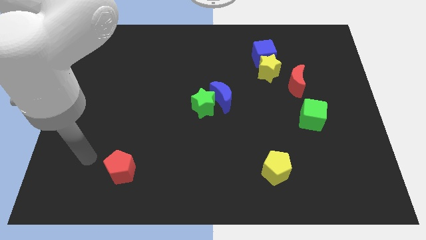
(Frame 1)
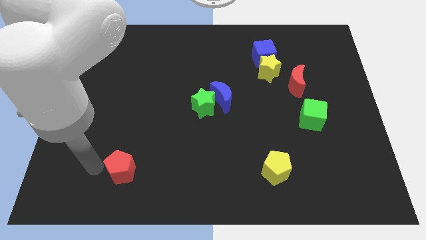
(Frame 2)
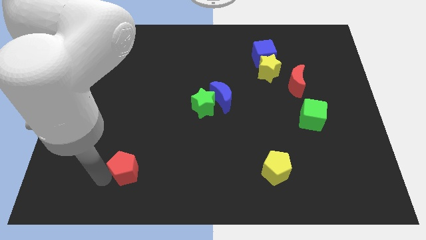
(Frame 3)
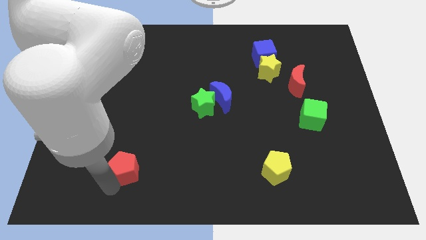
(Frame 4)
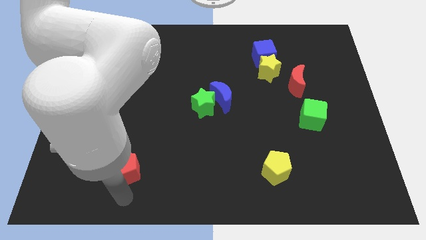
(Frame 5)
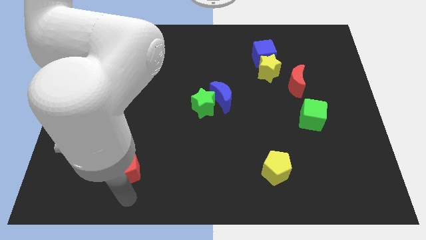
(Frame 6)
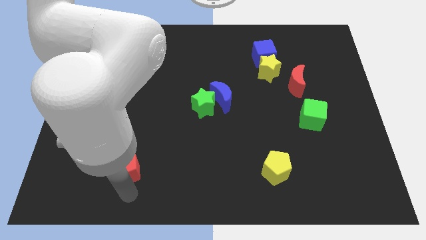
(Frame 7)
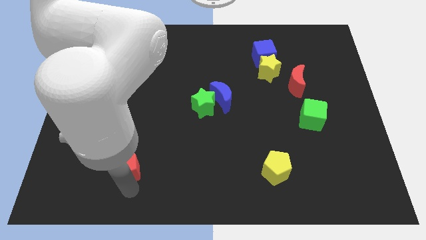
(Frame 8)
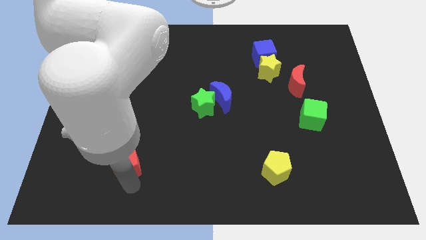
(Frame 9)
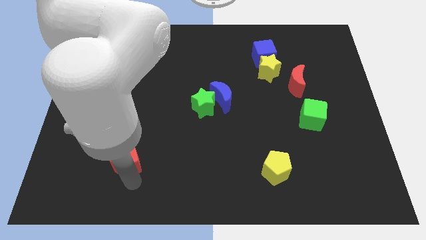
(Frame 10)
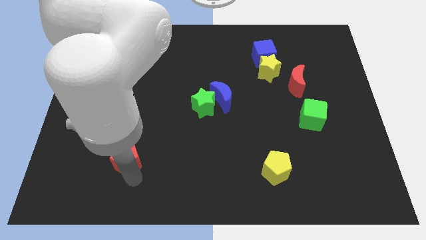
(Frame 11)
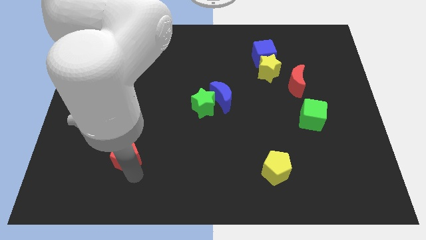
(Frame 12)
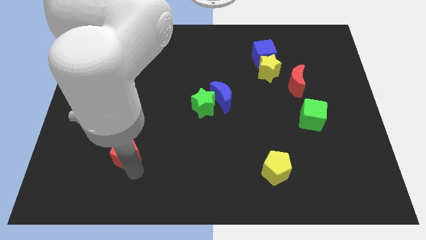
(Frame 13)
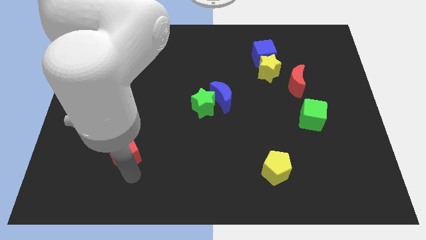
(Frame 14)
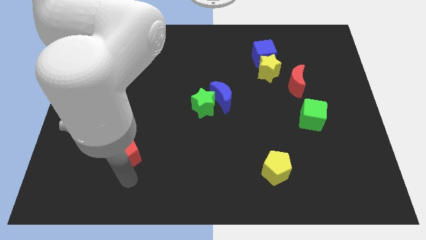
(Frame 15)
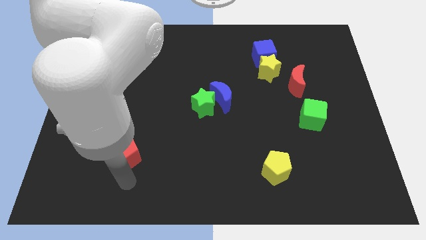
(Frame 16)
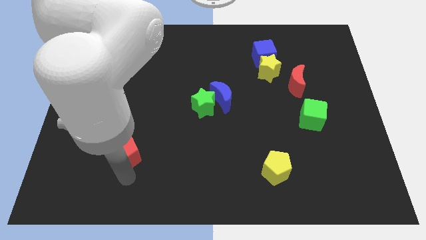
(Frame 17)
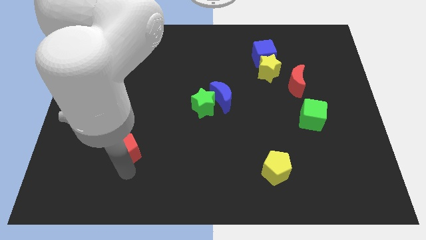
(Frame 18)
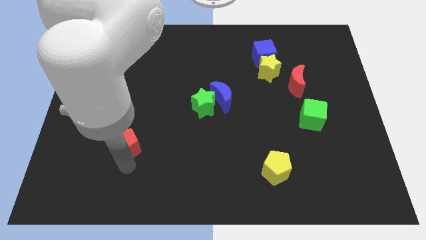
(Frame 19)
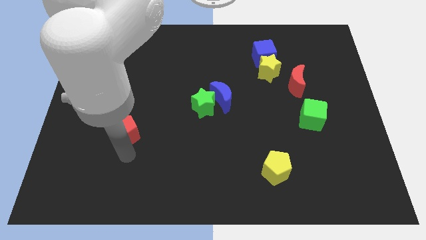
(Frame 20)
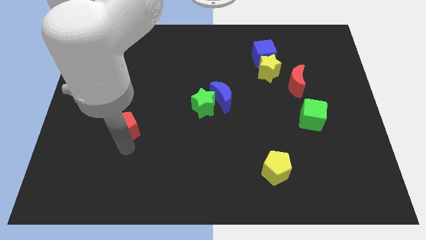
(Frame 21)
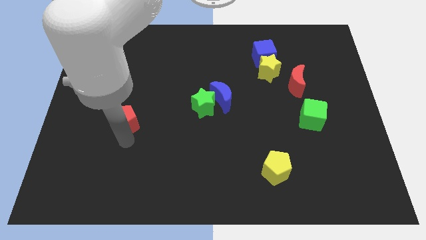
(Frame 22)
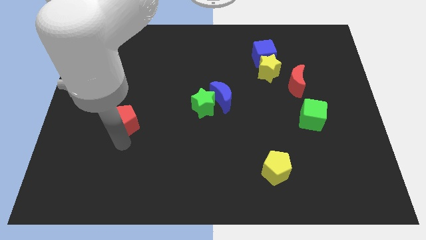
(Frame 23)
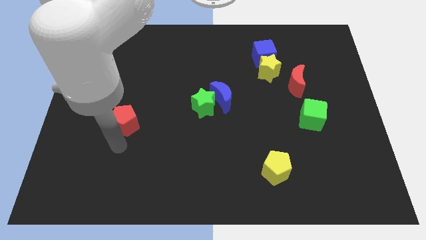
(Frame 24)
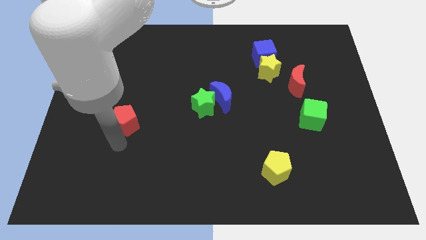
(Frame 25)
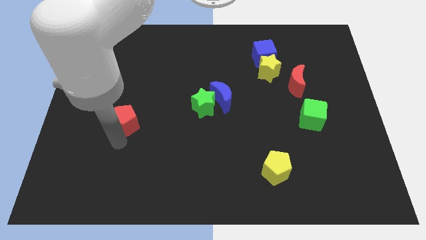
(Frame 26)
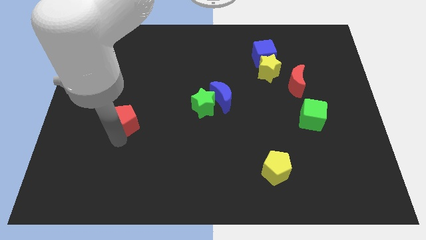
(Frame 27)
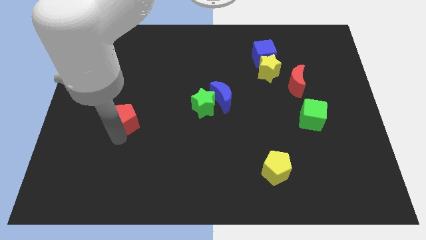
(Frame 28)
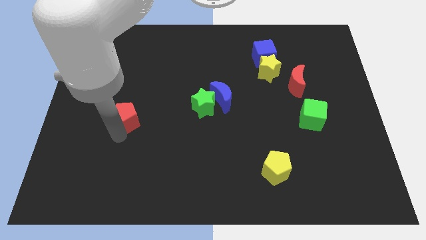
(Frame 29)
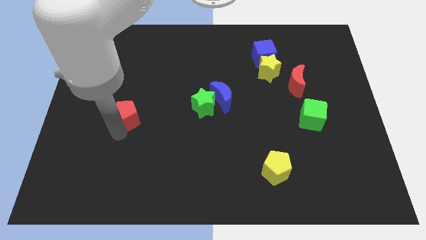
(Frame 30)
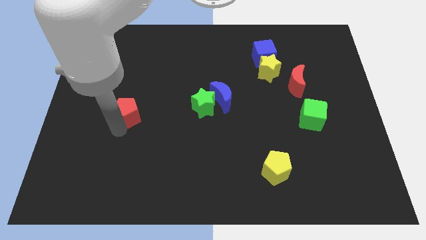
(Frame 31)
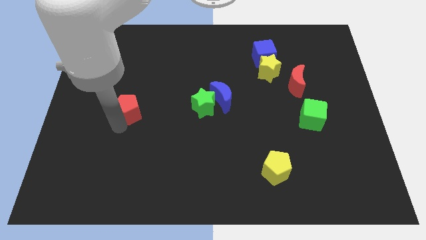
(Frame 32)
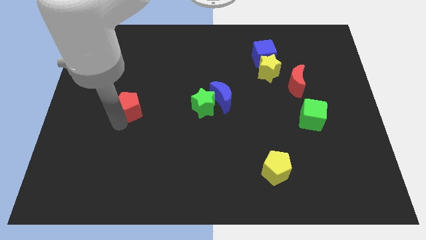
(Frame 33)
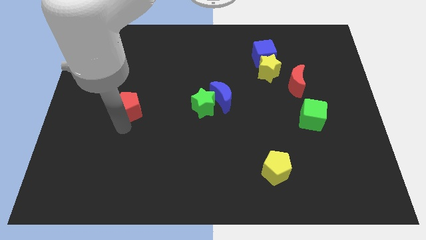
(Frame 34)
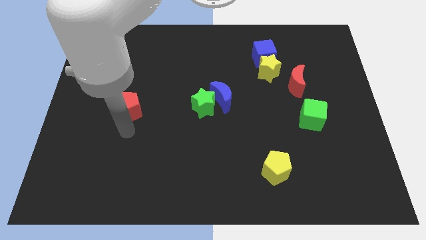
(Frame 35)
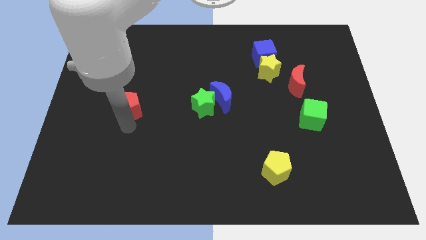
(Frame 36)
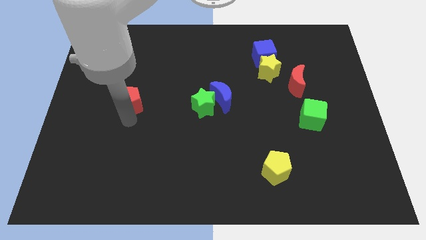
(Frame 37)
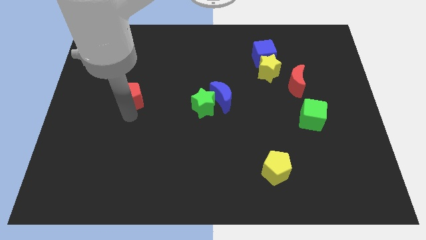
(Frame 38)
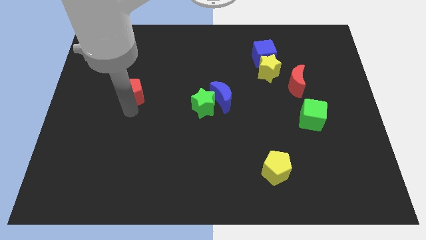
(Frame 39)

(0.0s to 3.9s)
slide the red pentagon up

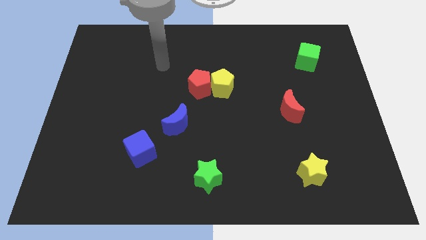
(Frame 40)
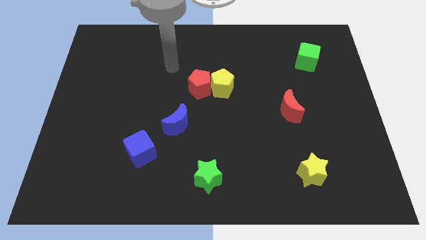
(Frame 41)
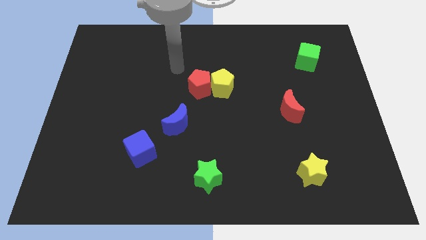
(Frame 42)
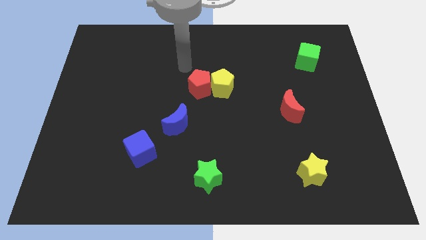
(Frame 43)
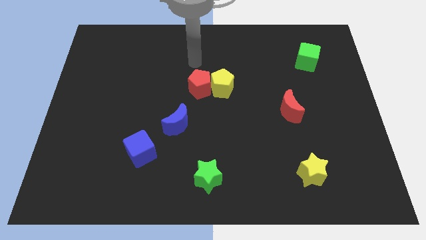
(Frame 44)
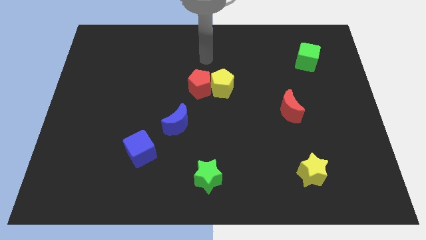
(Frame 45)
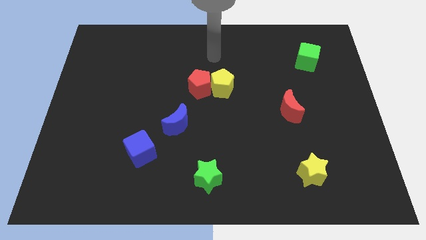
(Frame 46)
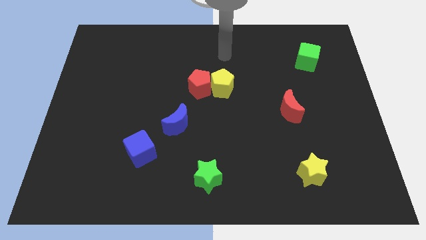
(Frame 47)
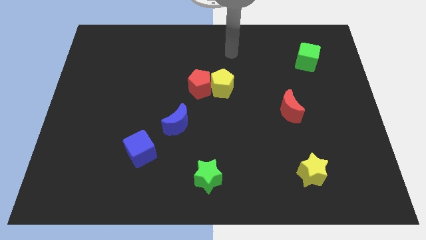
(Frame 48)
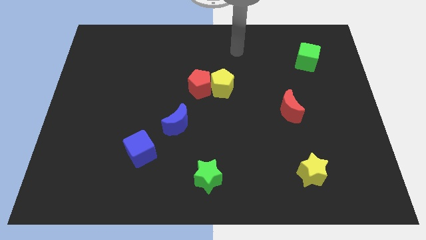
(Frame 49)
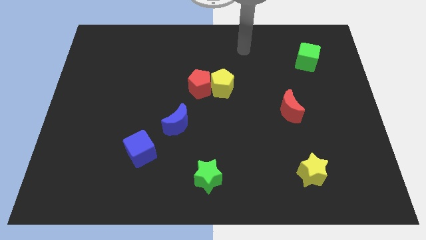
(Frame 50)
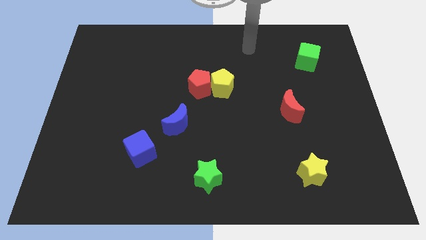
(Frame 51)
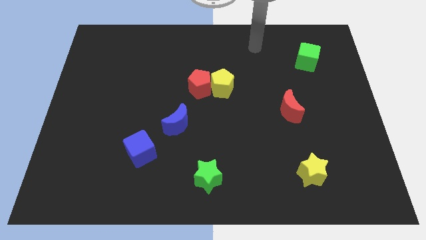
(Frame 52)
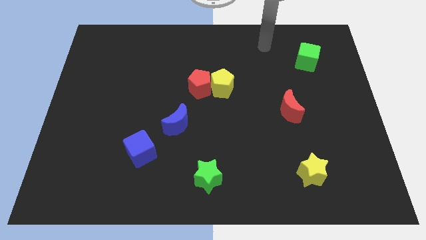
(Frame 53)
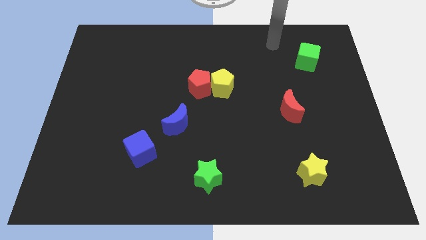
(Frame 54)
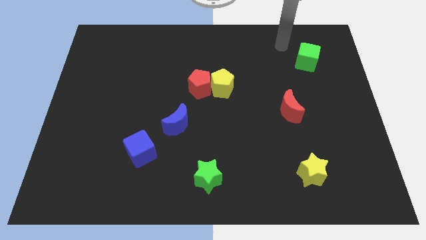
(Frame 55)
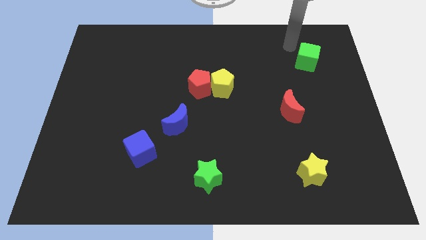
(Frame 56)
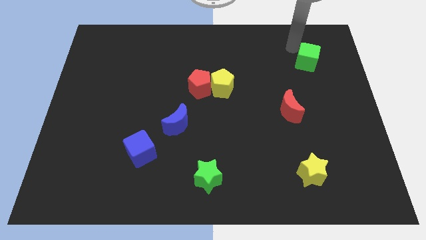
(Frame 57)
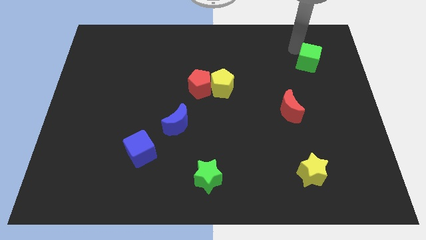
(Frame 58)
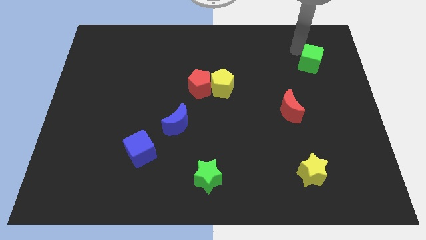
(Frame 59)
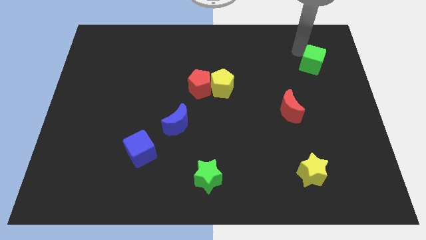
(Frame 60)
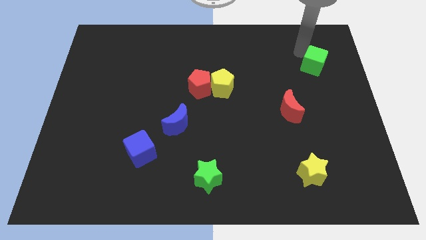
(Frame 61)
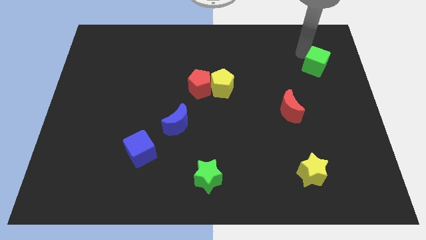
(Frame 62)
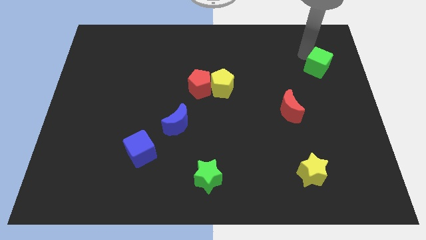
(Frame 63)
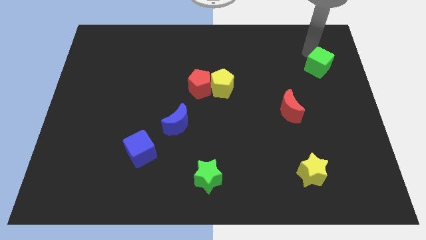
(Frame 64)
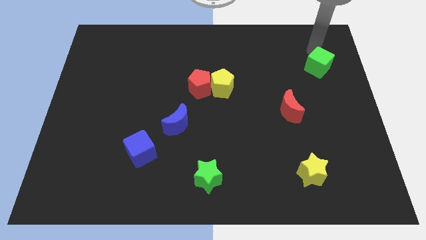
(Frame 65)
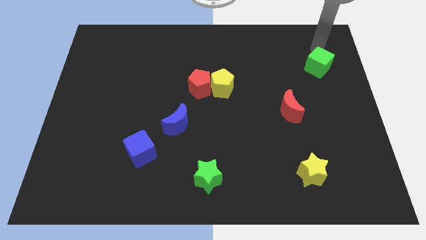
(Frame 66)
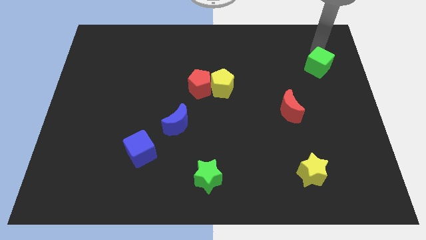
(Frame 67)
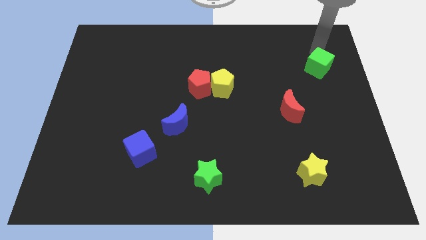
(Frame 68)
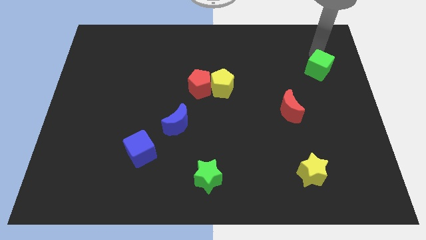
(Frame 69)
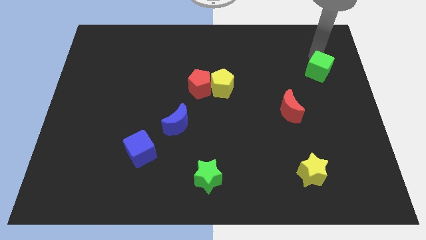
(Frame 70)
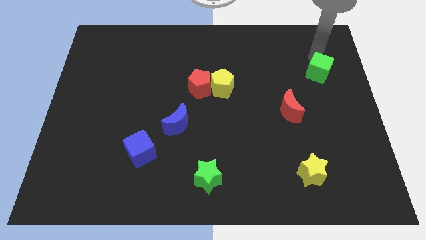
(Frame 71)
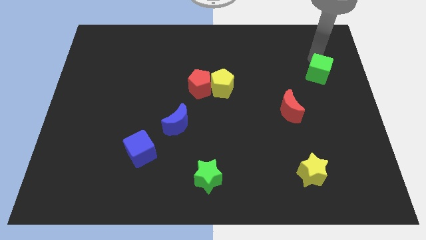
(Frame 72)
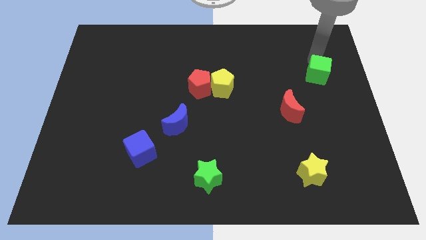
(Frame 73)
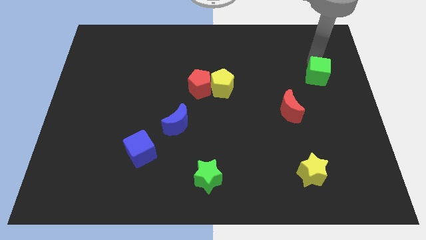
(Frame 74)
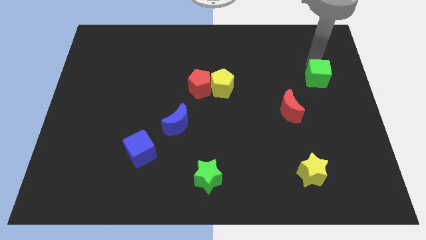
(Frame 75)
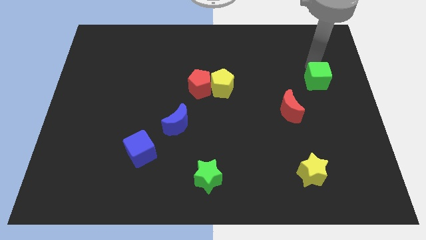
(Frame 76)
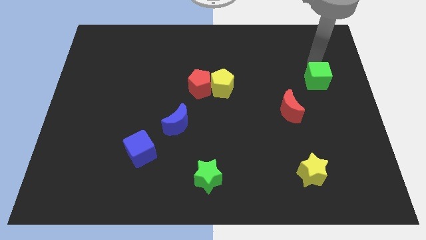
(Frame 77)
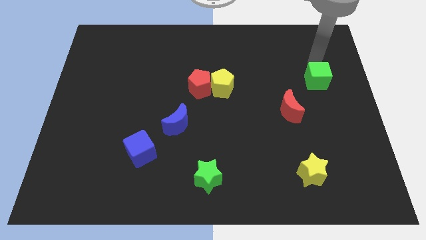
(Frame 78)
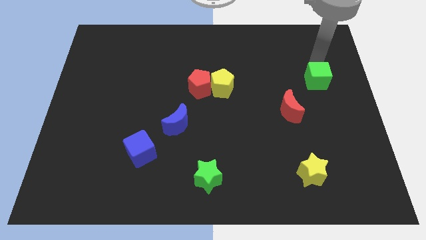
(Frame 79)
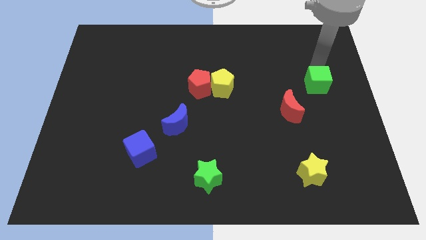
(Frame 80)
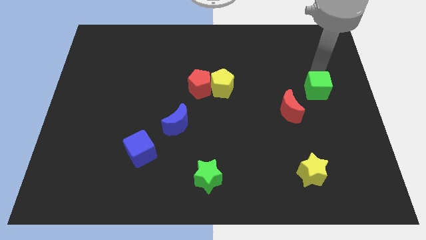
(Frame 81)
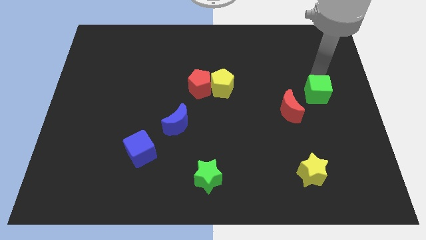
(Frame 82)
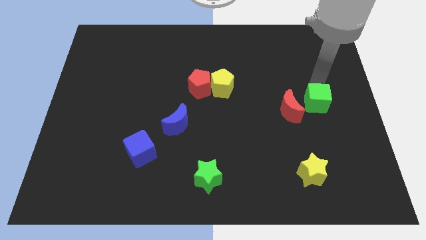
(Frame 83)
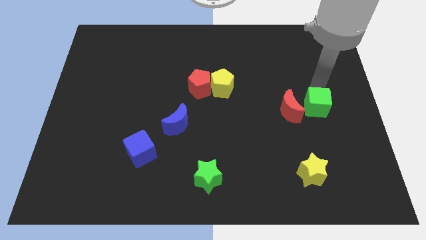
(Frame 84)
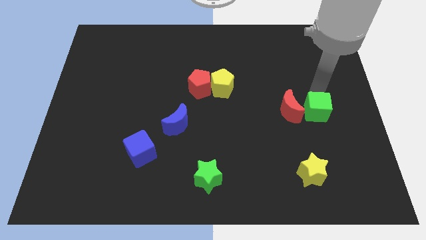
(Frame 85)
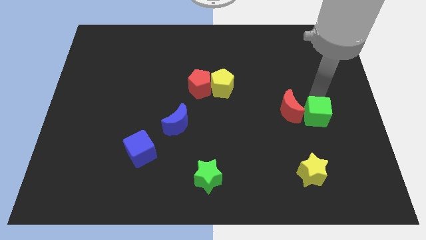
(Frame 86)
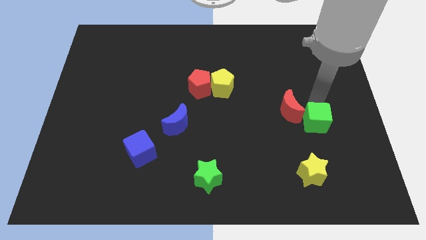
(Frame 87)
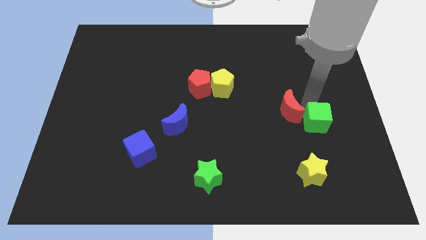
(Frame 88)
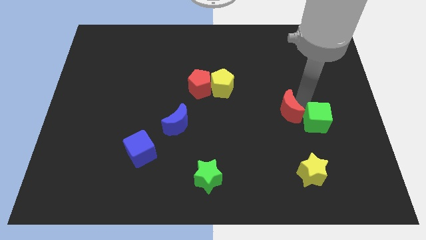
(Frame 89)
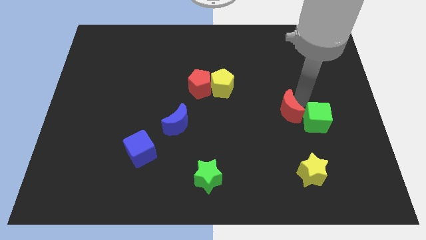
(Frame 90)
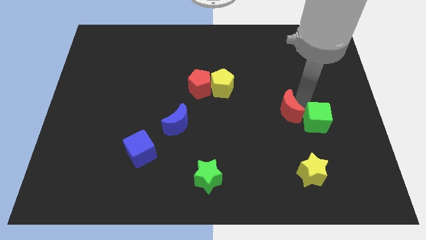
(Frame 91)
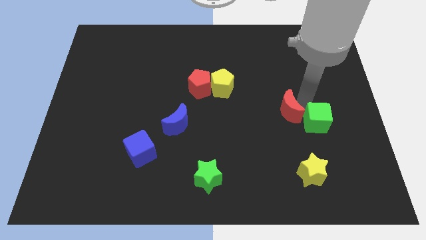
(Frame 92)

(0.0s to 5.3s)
push the green cube down
